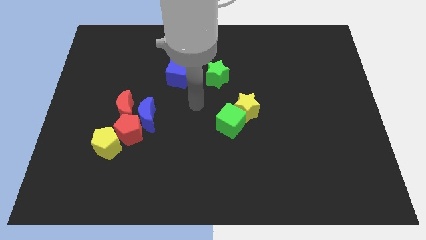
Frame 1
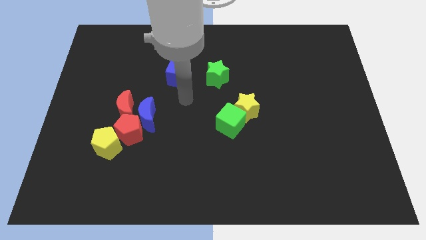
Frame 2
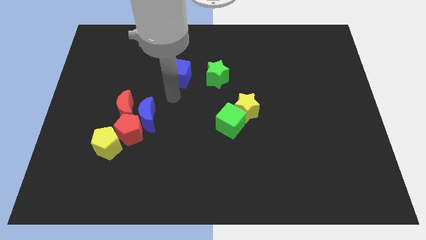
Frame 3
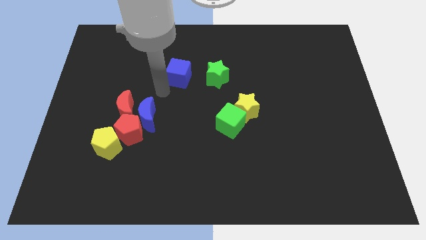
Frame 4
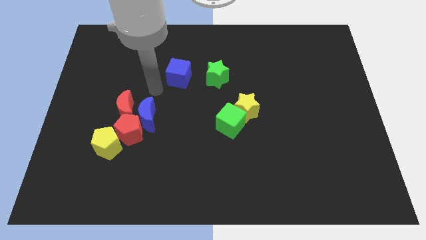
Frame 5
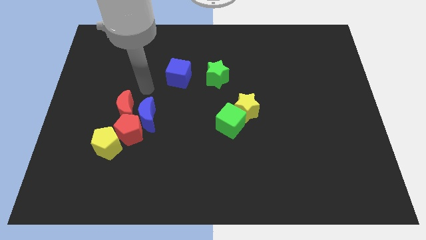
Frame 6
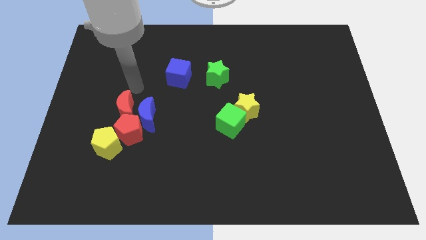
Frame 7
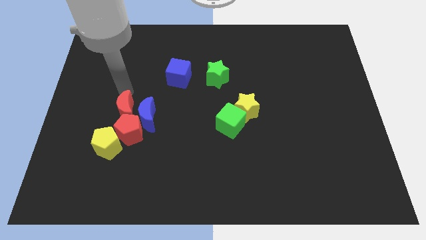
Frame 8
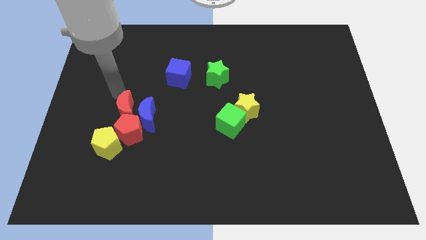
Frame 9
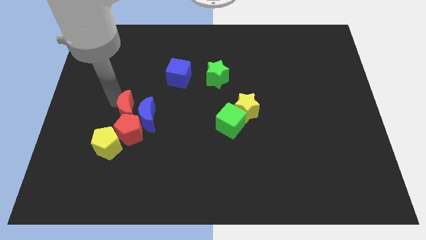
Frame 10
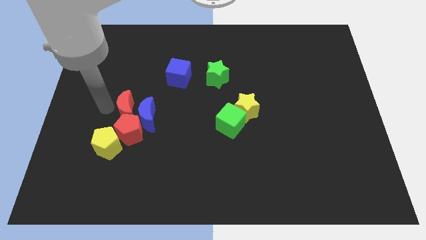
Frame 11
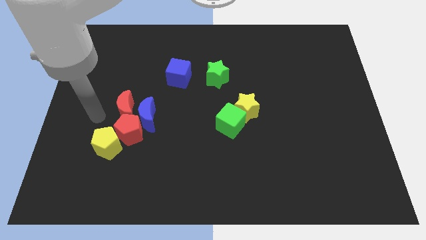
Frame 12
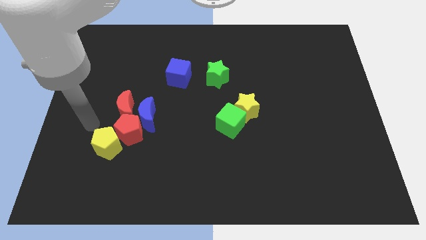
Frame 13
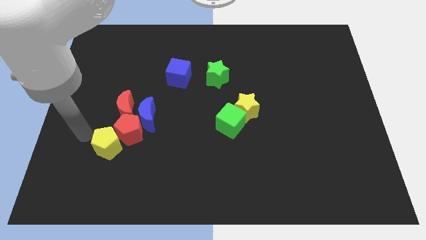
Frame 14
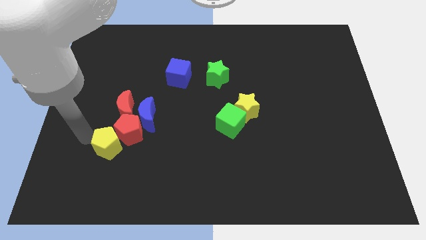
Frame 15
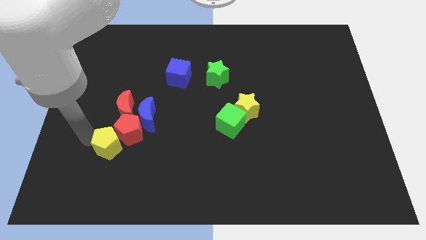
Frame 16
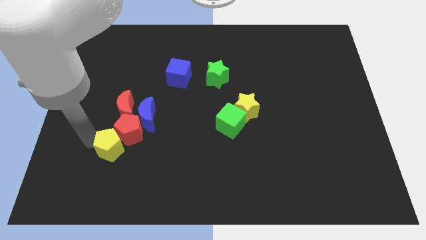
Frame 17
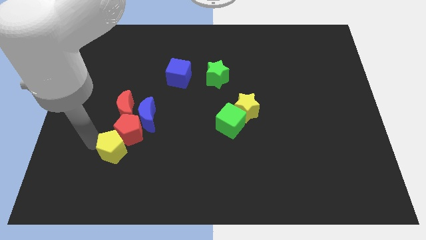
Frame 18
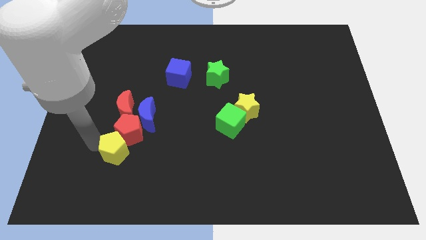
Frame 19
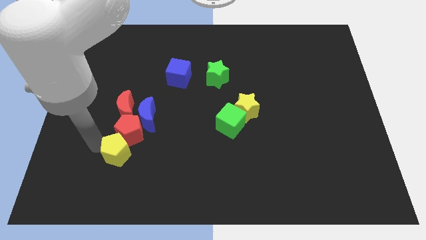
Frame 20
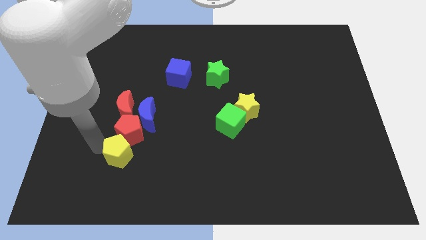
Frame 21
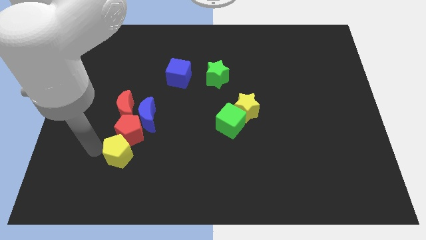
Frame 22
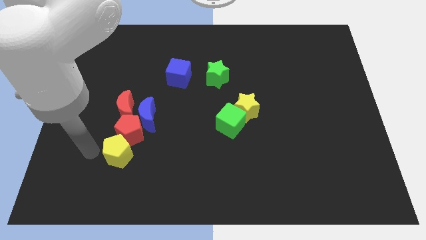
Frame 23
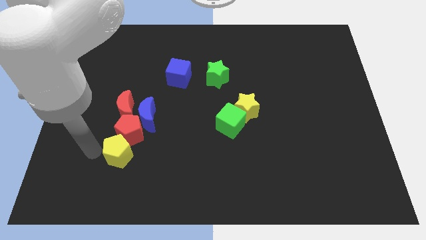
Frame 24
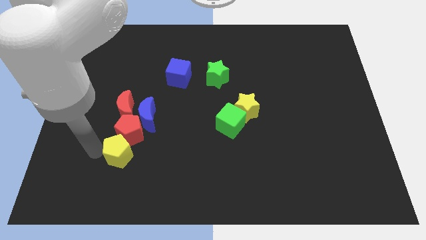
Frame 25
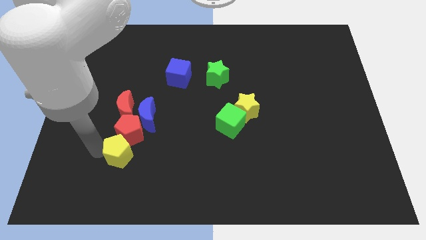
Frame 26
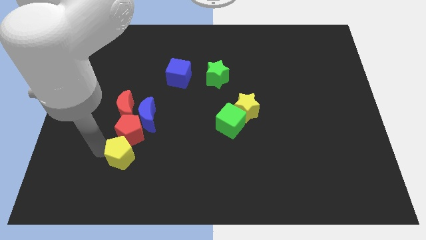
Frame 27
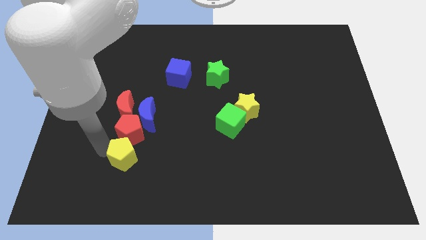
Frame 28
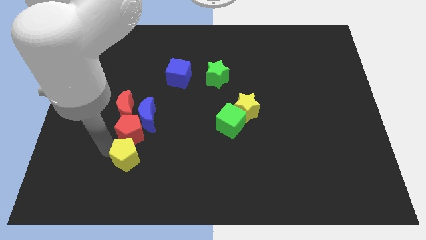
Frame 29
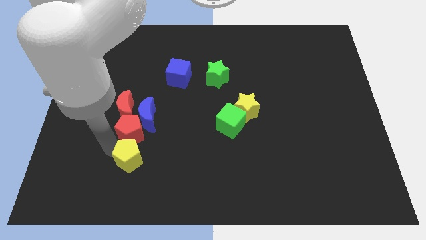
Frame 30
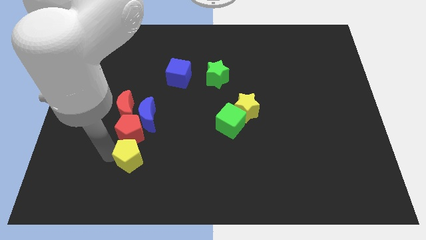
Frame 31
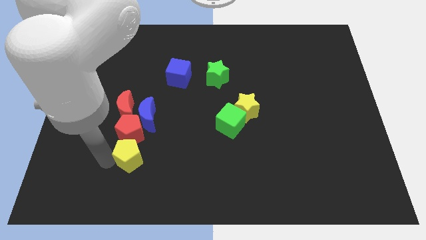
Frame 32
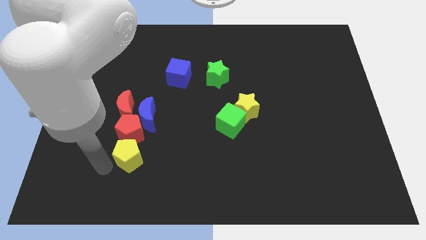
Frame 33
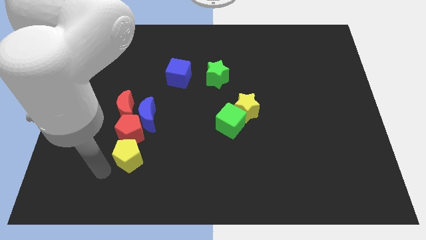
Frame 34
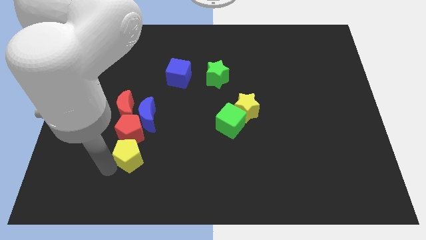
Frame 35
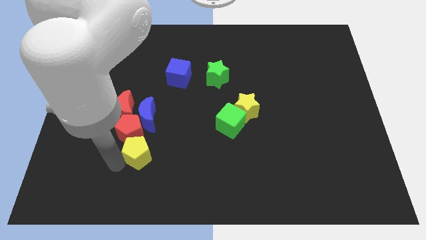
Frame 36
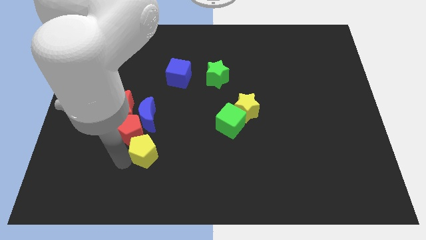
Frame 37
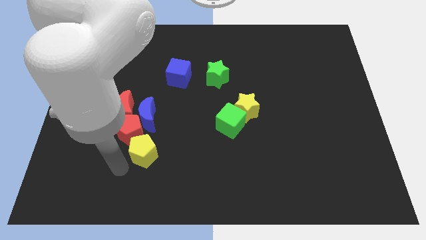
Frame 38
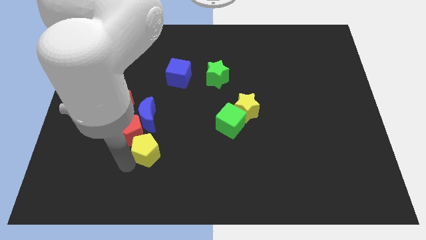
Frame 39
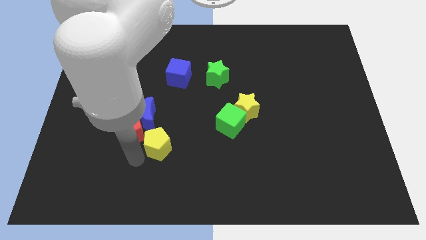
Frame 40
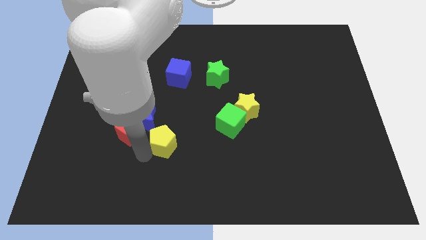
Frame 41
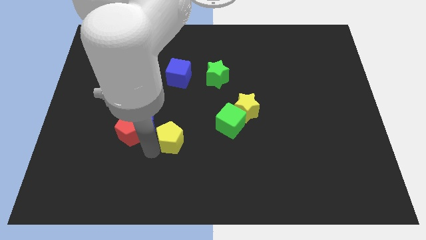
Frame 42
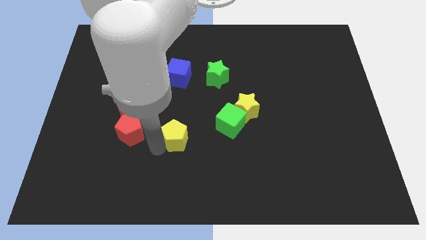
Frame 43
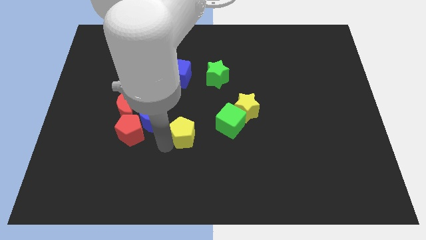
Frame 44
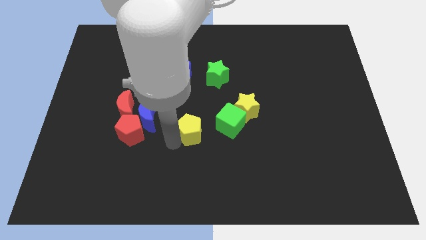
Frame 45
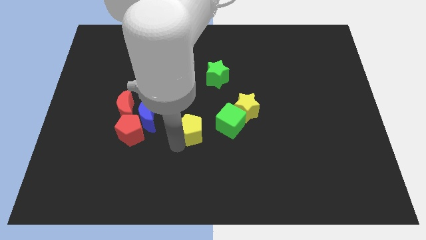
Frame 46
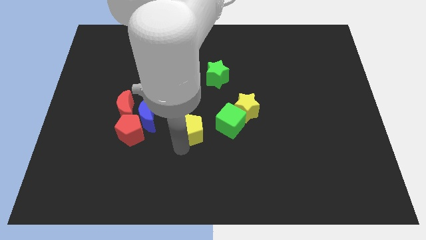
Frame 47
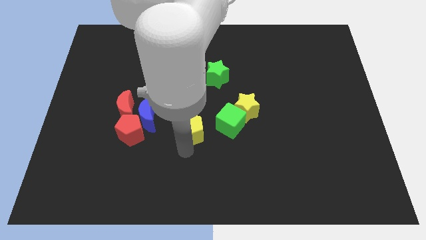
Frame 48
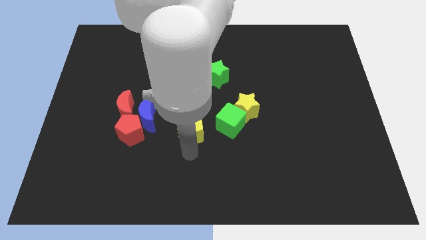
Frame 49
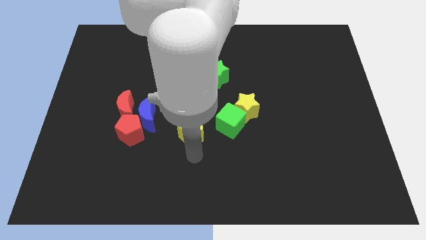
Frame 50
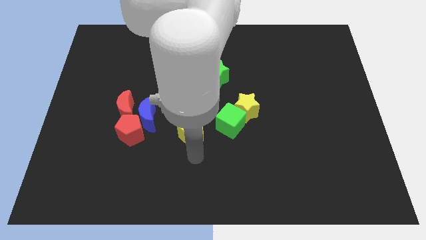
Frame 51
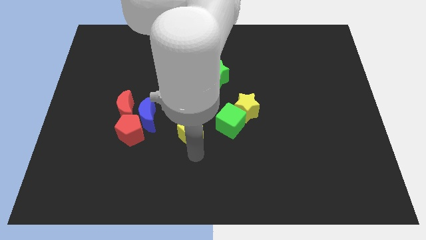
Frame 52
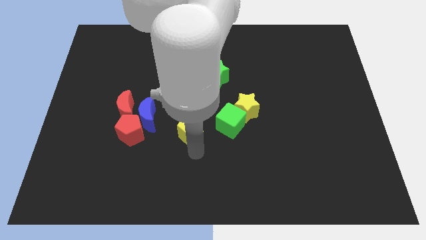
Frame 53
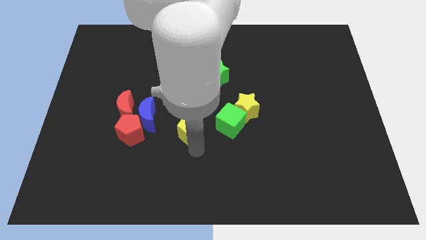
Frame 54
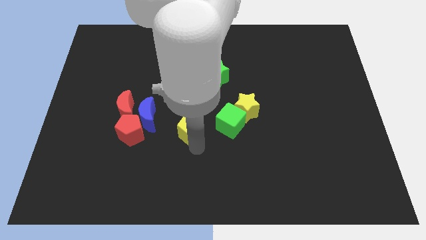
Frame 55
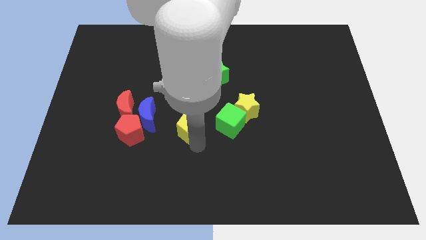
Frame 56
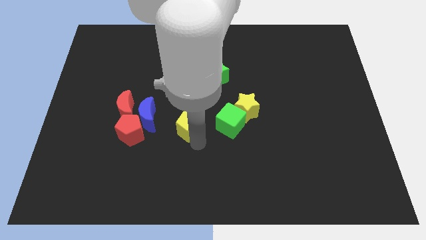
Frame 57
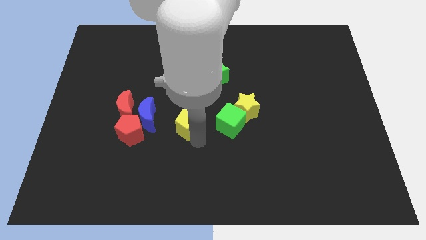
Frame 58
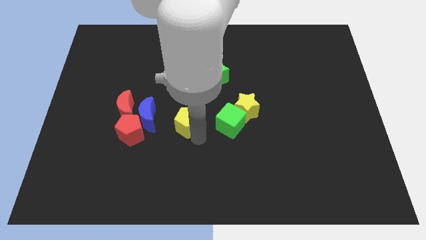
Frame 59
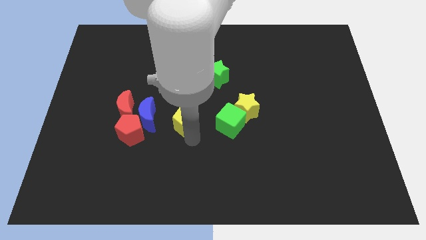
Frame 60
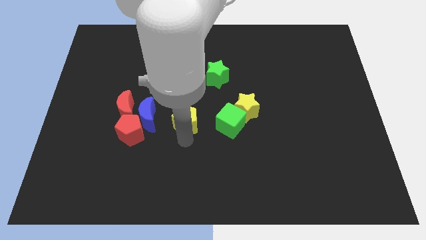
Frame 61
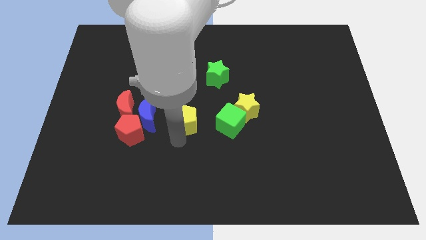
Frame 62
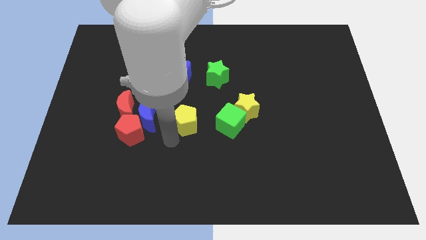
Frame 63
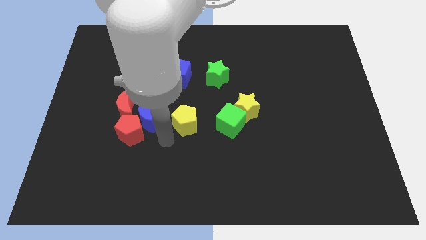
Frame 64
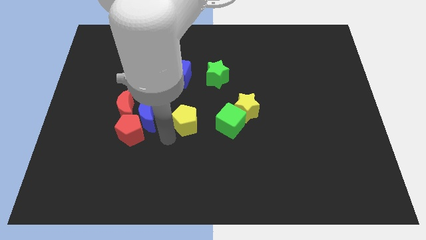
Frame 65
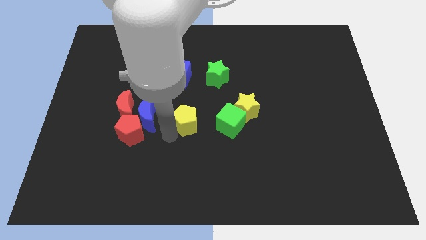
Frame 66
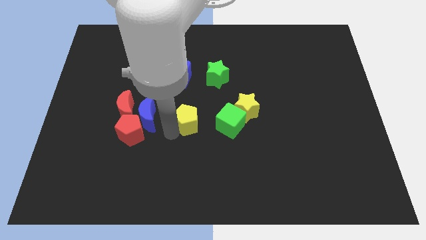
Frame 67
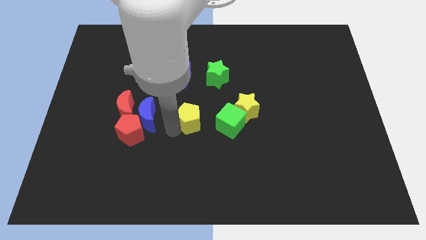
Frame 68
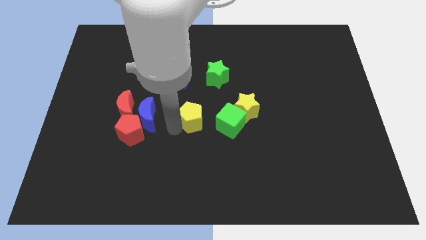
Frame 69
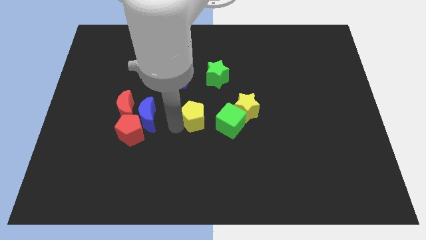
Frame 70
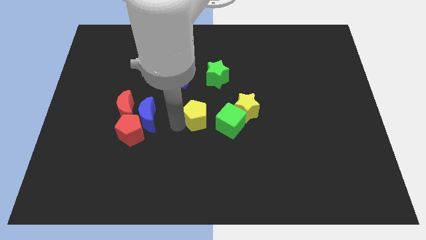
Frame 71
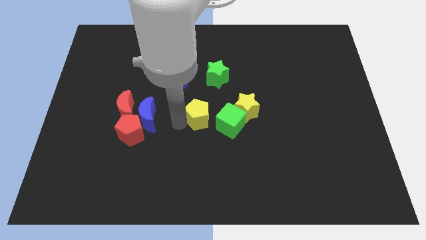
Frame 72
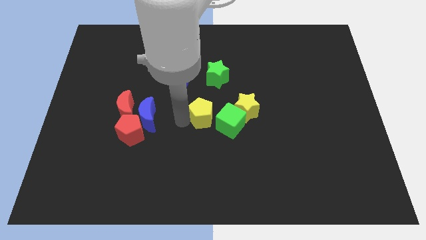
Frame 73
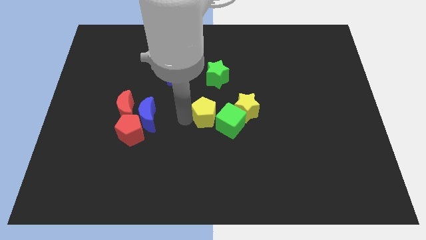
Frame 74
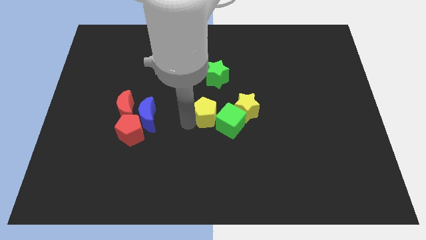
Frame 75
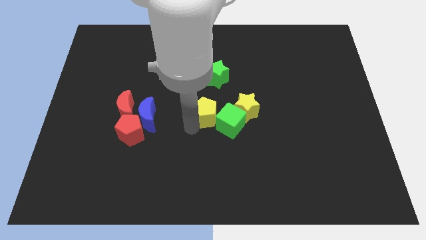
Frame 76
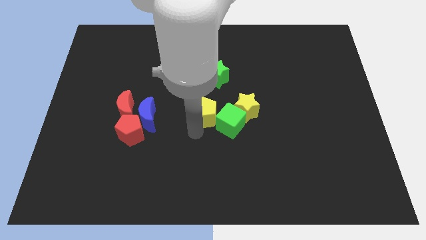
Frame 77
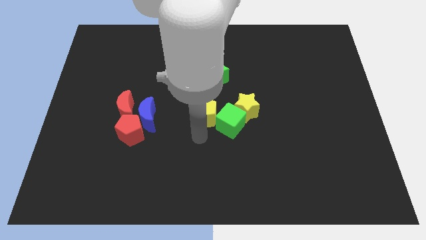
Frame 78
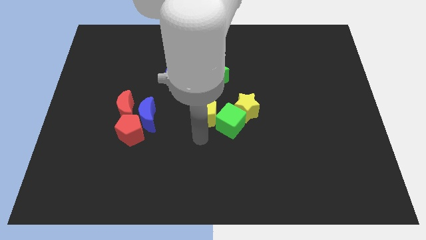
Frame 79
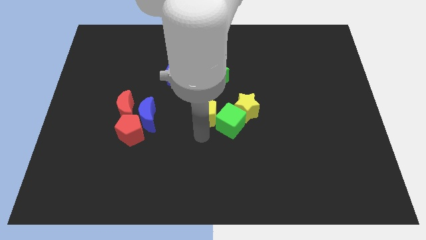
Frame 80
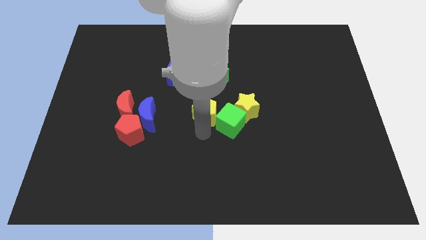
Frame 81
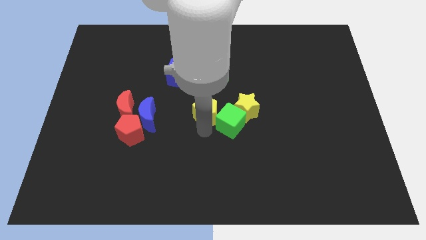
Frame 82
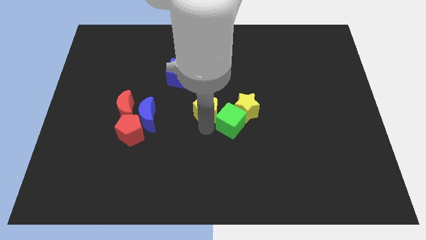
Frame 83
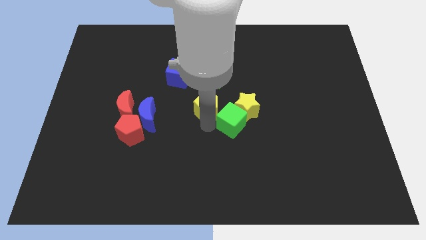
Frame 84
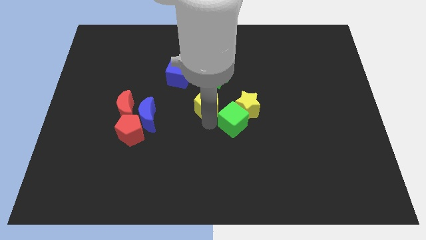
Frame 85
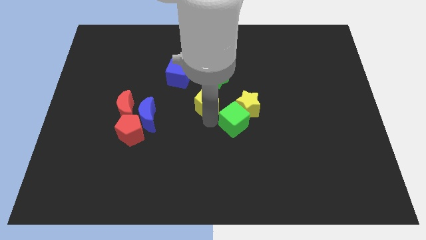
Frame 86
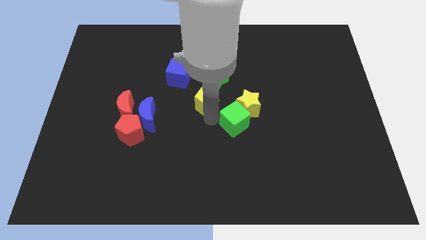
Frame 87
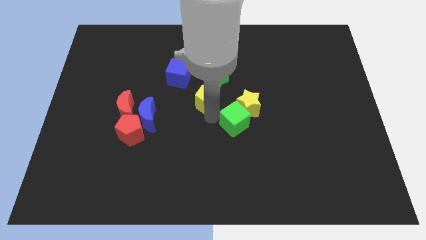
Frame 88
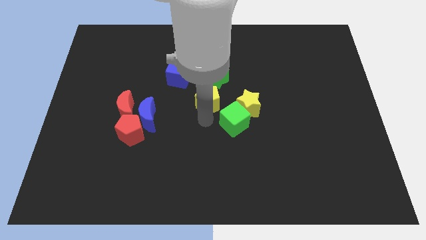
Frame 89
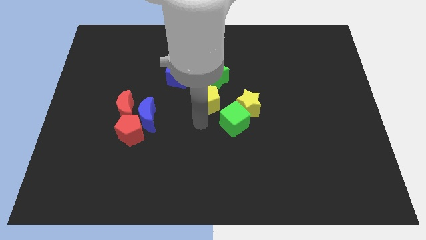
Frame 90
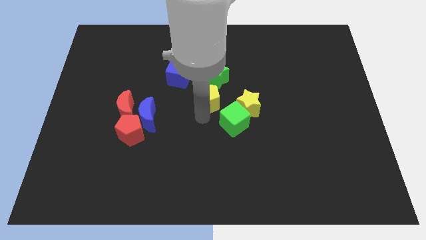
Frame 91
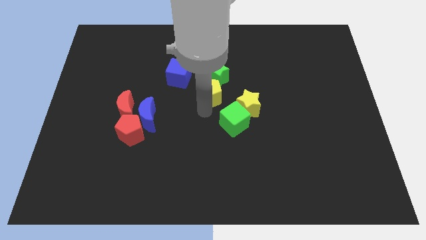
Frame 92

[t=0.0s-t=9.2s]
put the yellow pentagon to the green star
